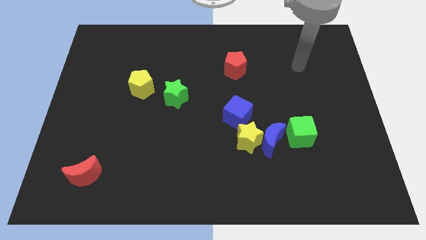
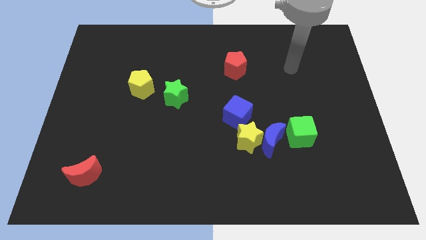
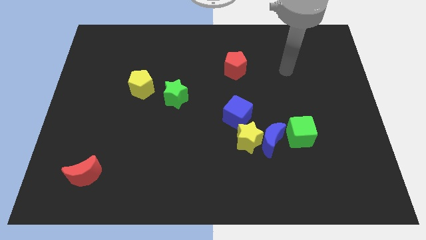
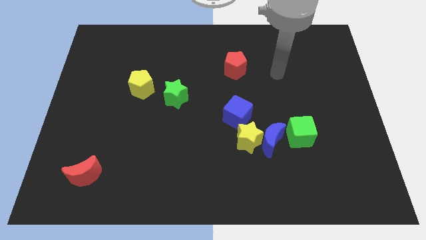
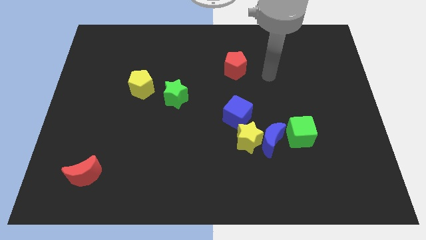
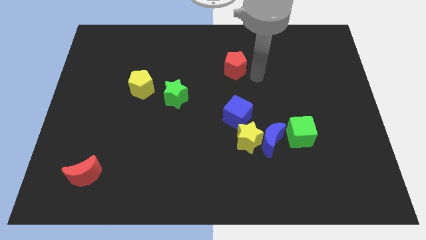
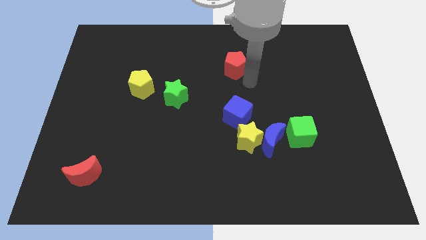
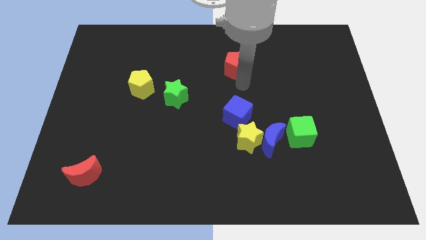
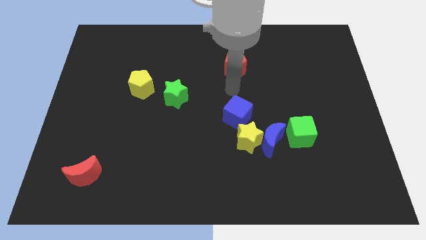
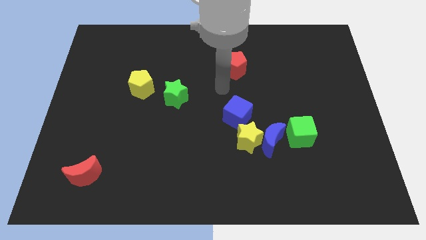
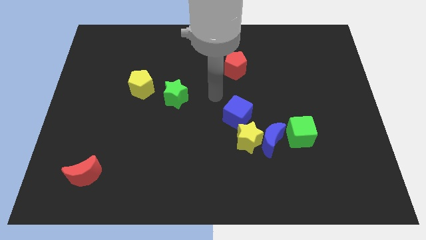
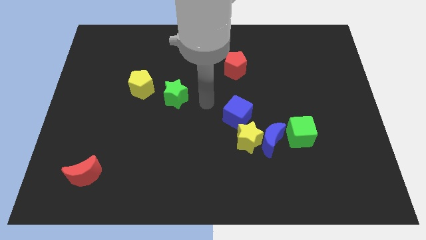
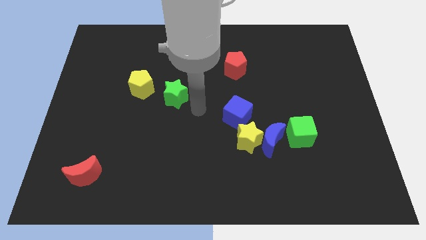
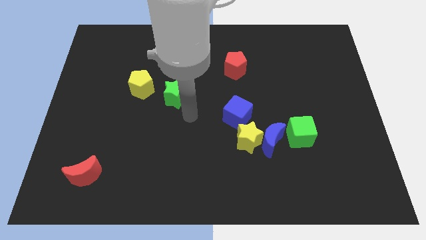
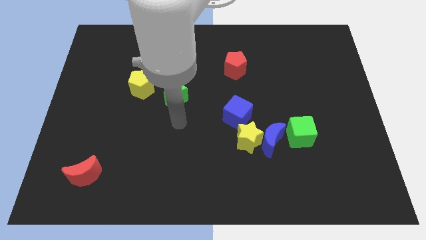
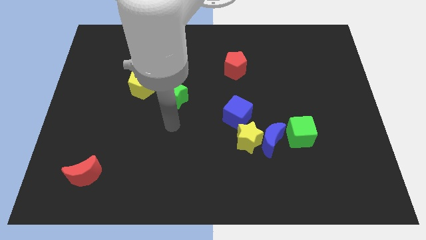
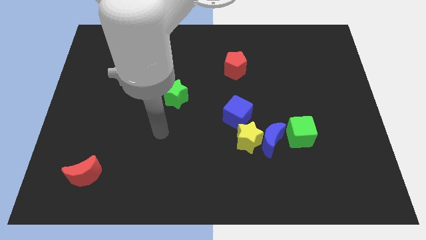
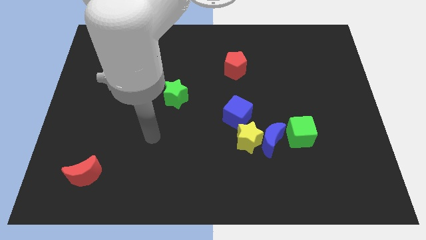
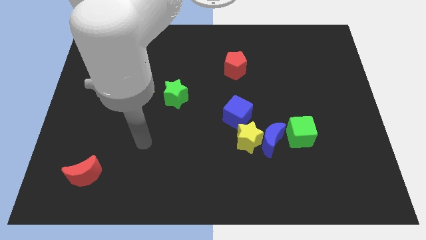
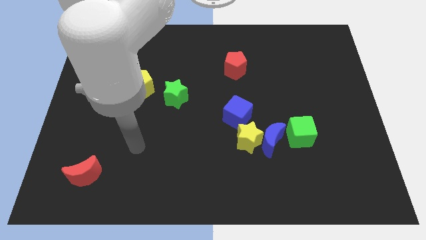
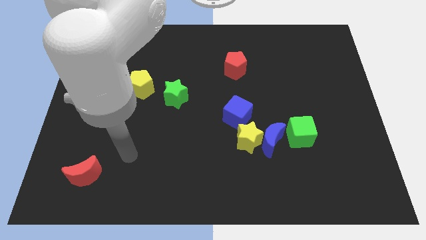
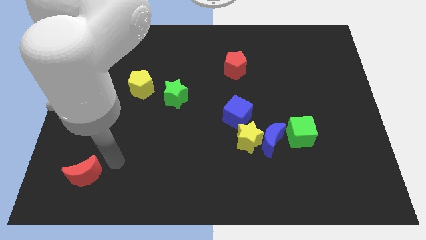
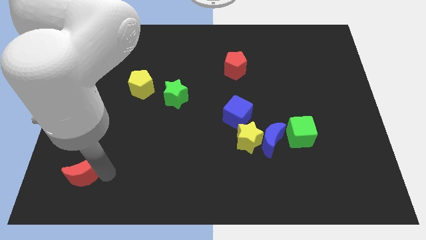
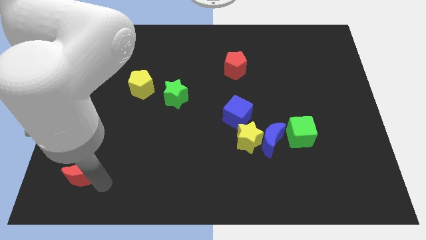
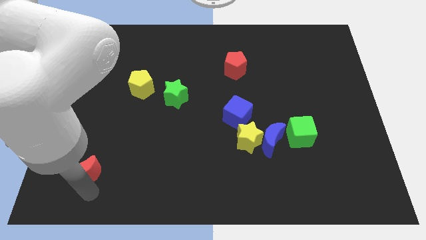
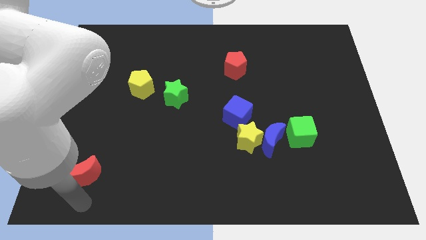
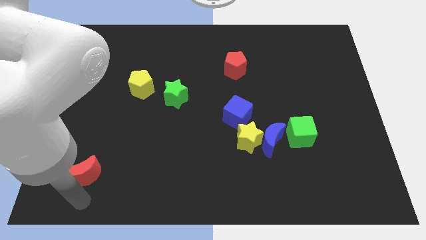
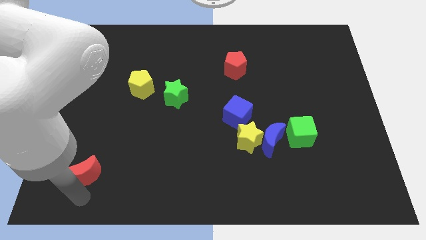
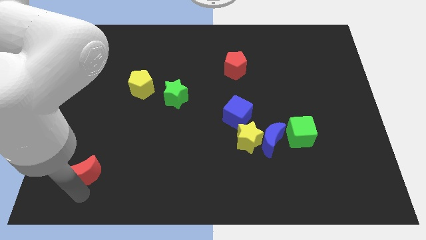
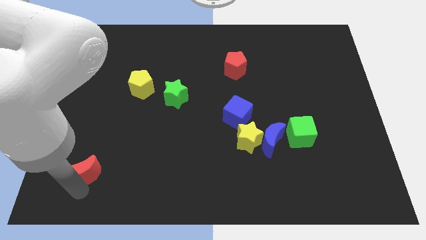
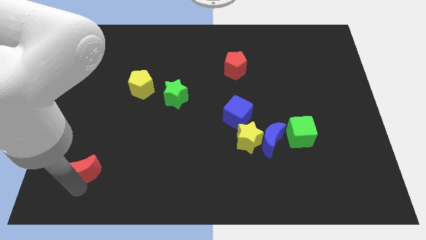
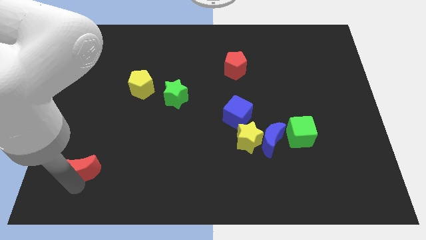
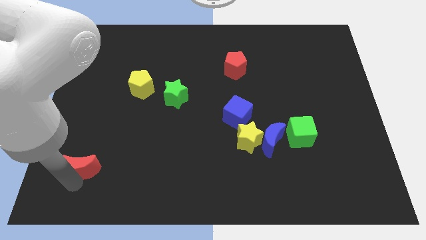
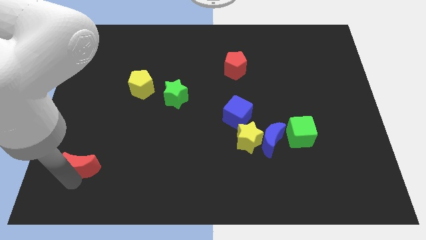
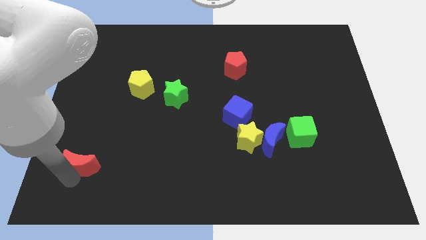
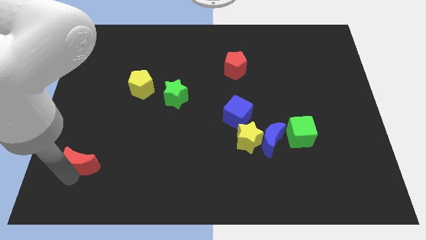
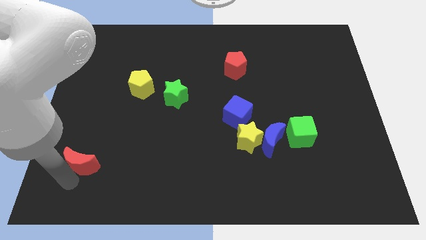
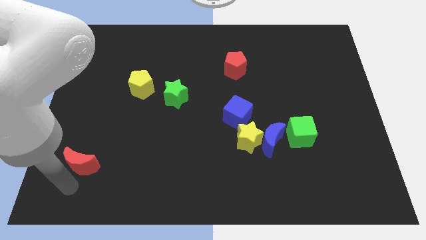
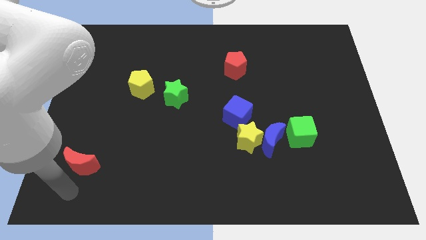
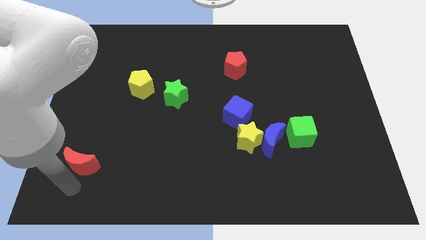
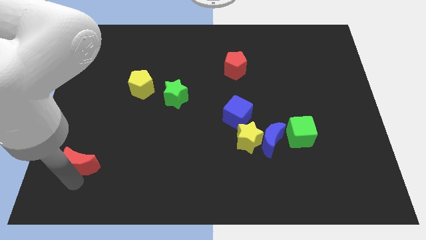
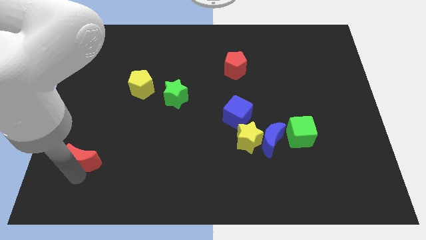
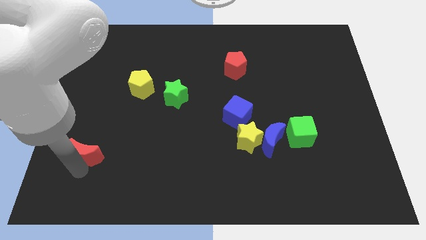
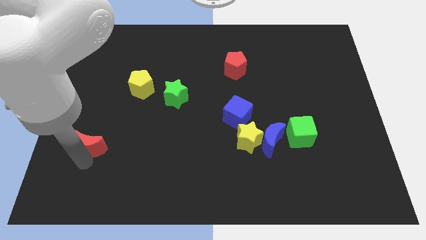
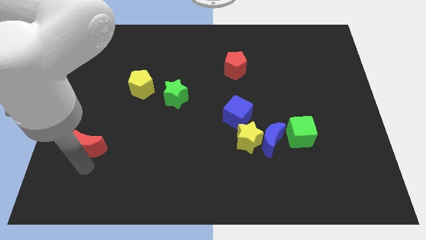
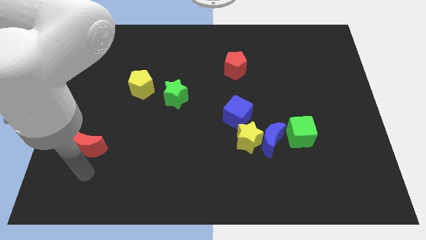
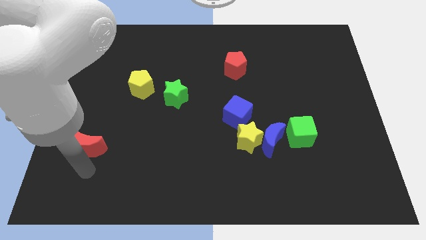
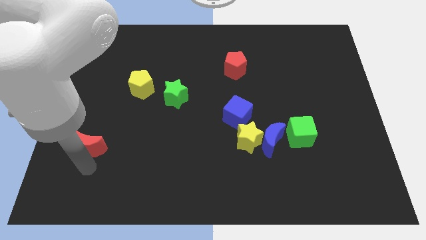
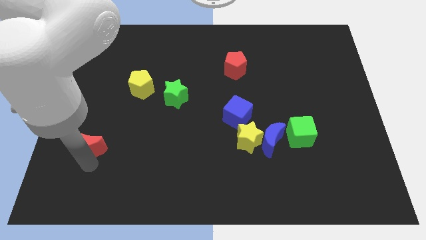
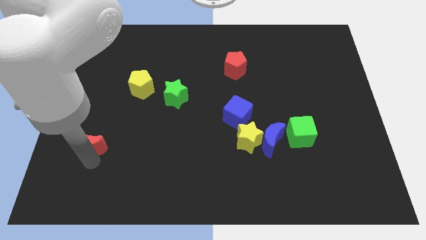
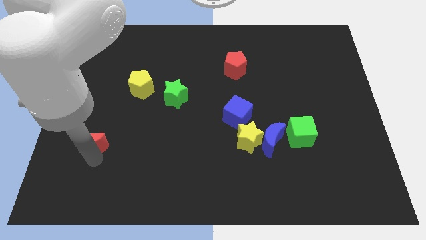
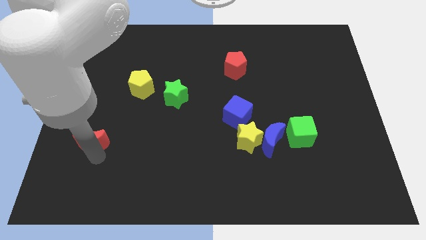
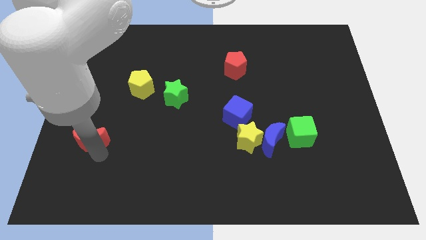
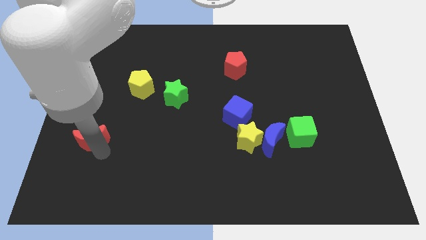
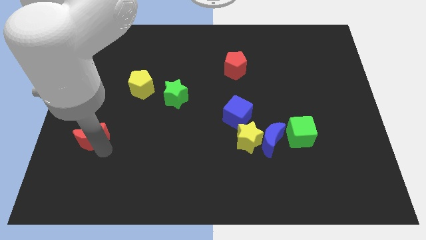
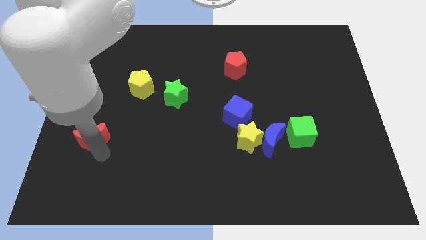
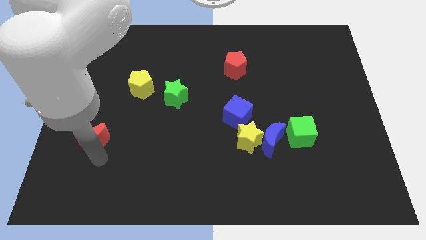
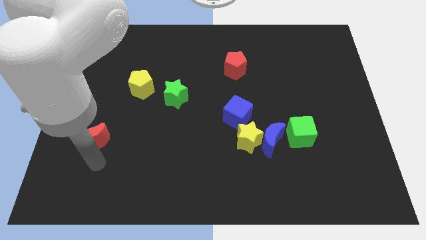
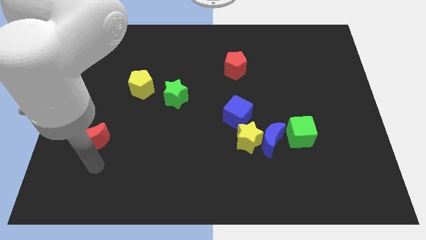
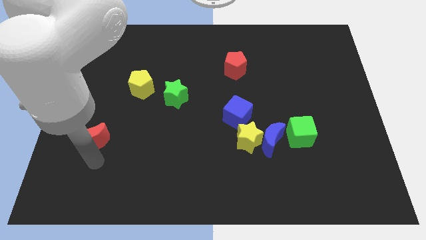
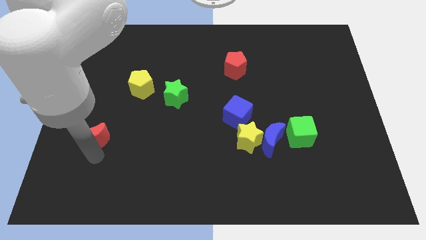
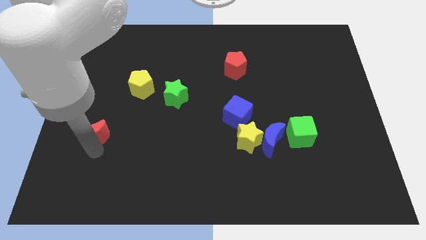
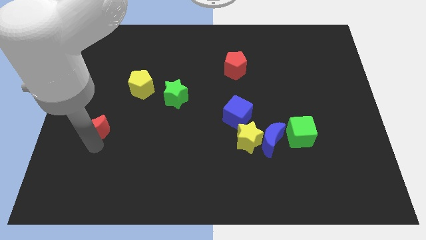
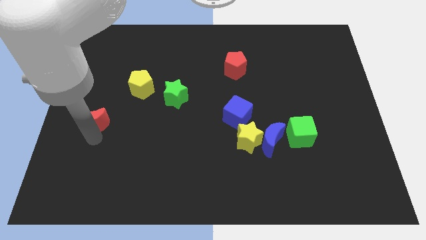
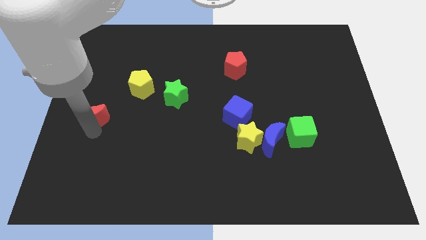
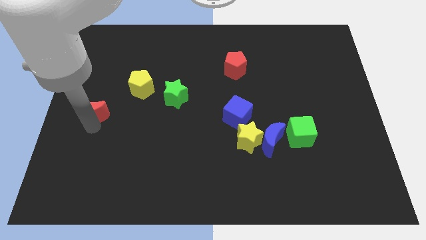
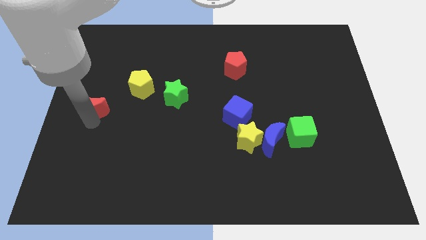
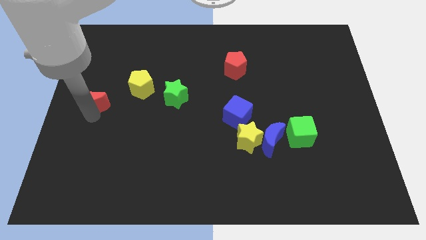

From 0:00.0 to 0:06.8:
slide the red moon to the left of the yellow pentagon
